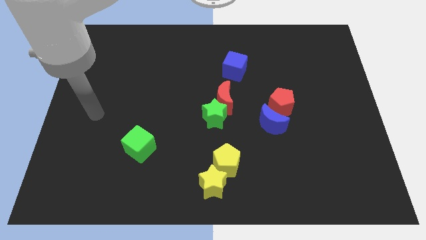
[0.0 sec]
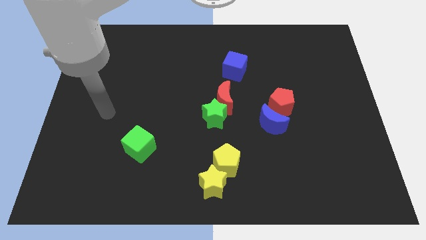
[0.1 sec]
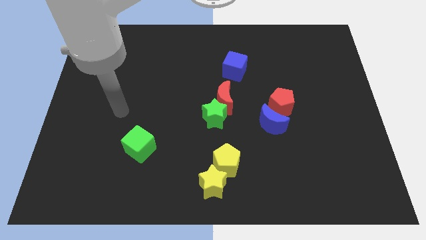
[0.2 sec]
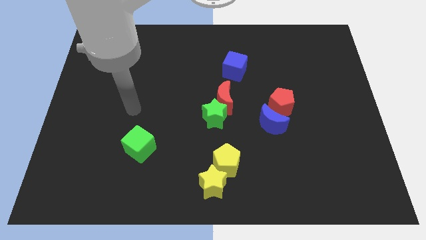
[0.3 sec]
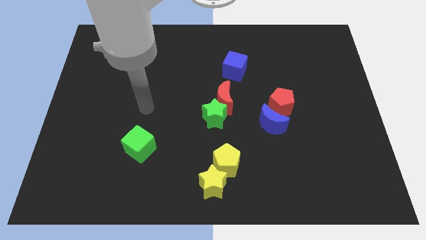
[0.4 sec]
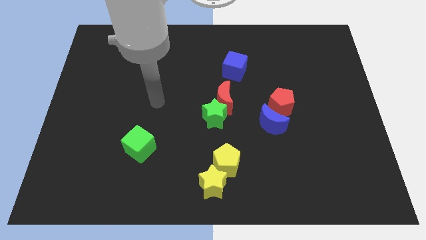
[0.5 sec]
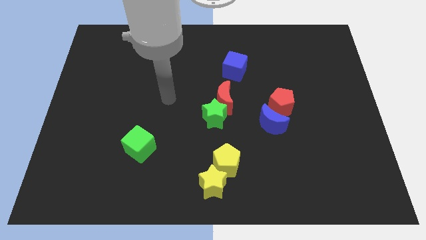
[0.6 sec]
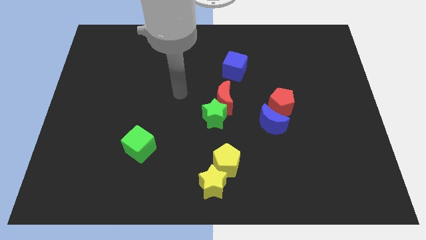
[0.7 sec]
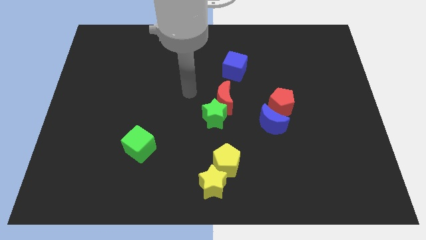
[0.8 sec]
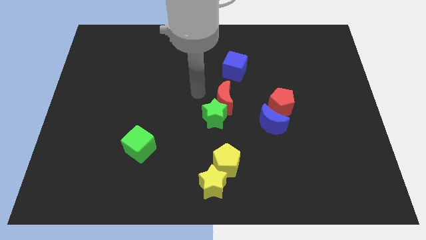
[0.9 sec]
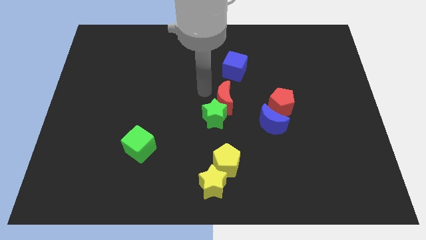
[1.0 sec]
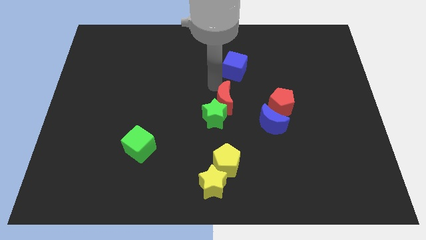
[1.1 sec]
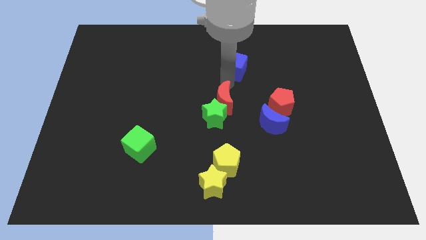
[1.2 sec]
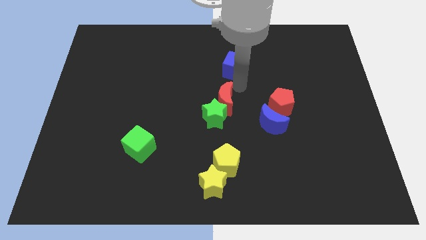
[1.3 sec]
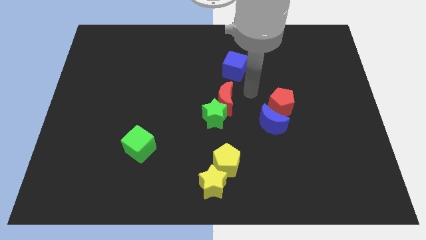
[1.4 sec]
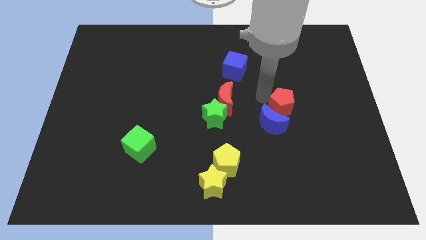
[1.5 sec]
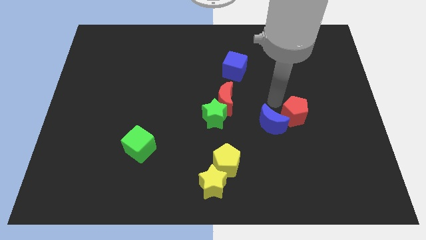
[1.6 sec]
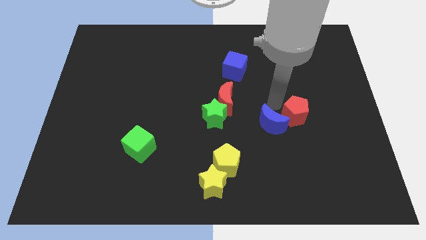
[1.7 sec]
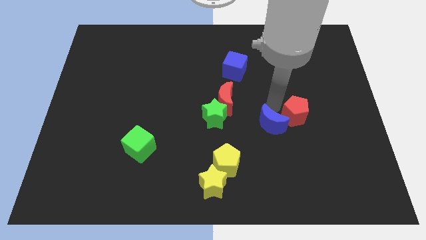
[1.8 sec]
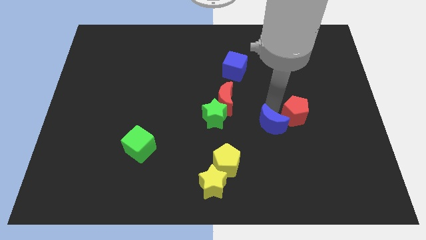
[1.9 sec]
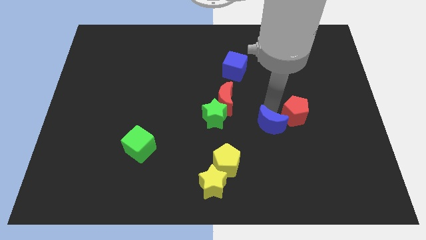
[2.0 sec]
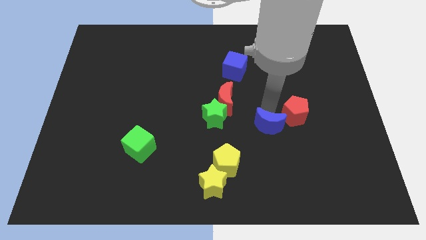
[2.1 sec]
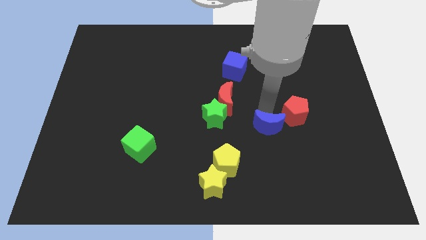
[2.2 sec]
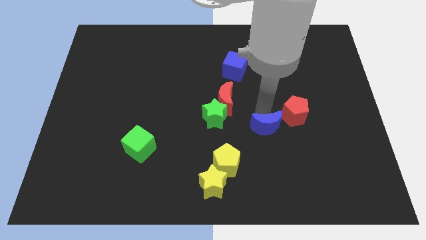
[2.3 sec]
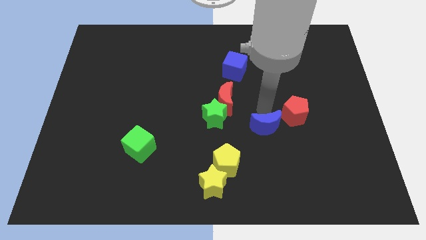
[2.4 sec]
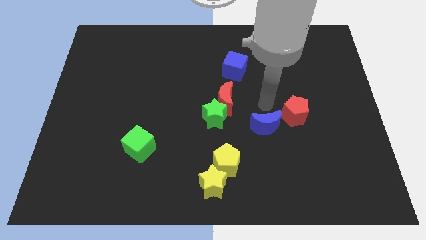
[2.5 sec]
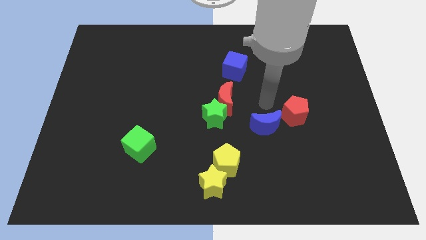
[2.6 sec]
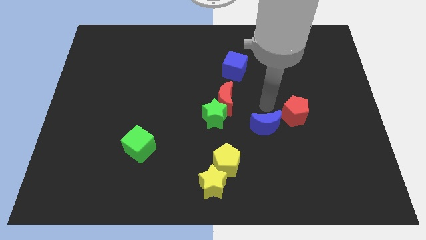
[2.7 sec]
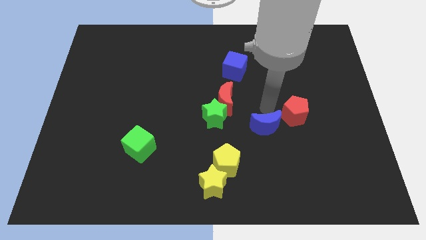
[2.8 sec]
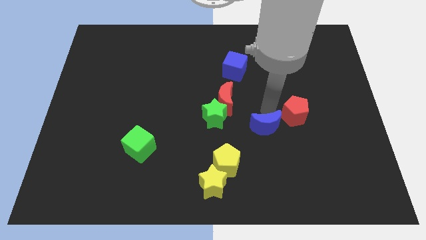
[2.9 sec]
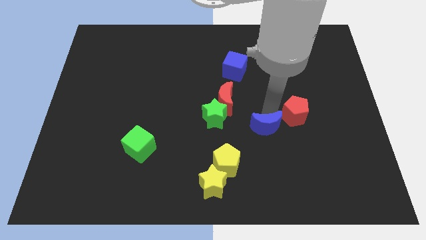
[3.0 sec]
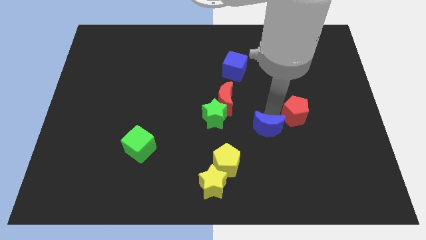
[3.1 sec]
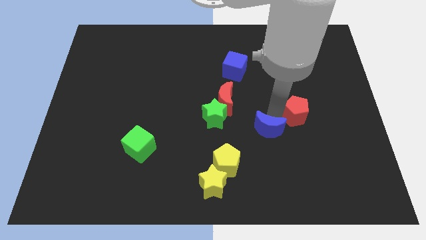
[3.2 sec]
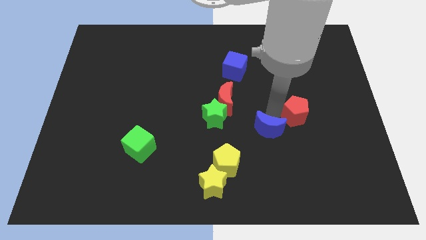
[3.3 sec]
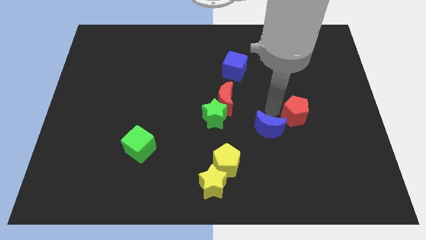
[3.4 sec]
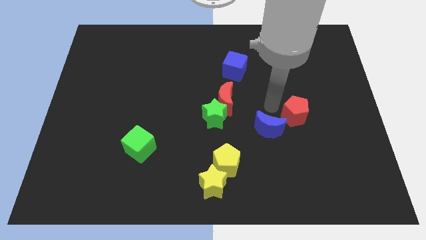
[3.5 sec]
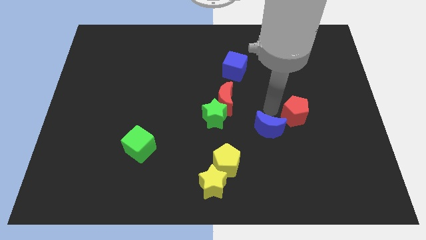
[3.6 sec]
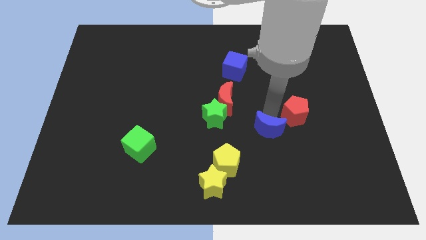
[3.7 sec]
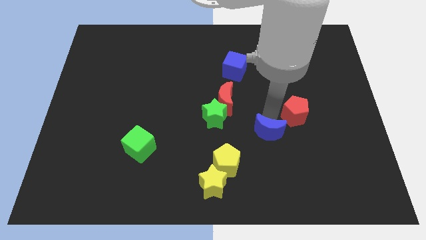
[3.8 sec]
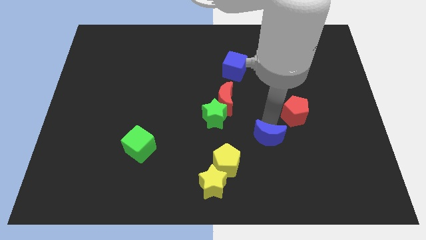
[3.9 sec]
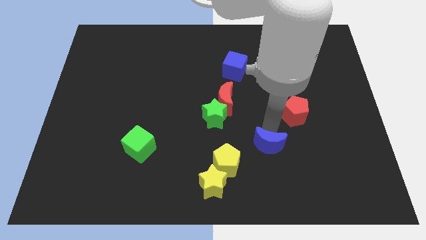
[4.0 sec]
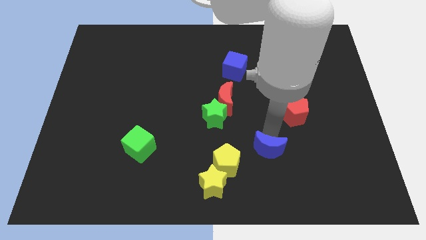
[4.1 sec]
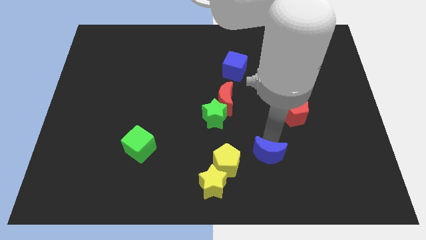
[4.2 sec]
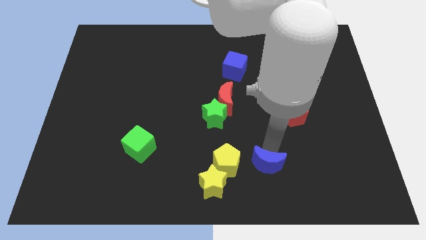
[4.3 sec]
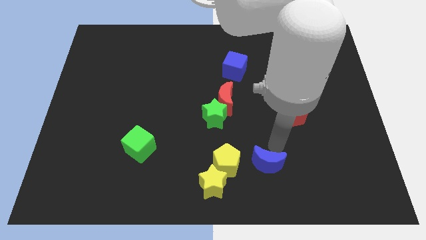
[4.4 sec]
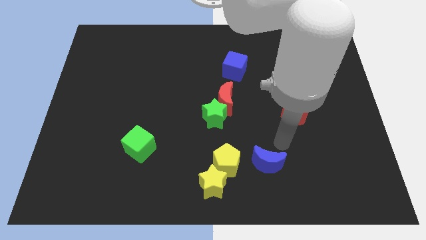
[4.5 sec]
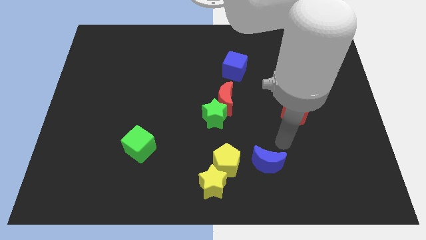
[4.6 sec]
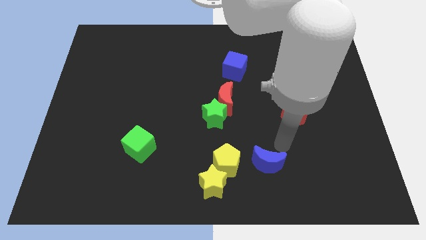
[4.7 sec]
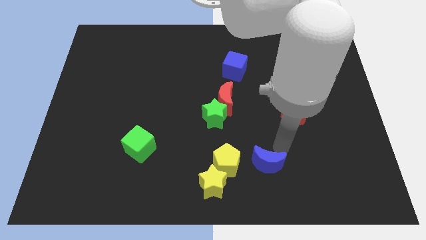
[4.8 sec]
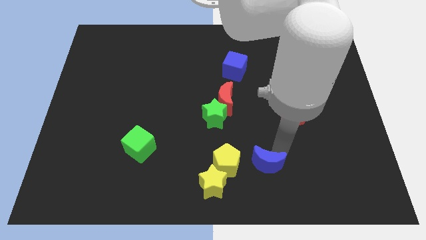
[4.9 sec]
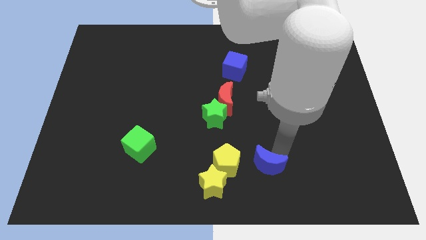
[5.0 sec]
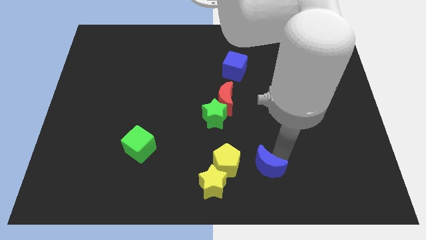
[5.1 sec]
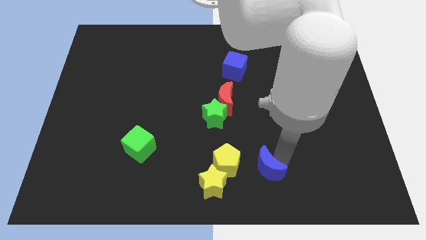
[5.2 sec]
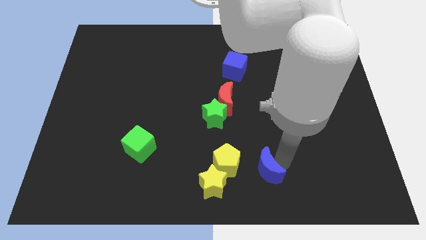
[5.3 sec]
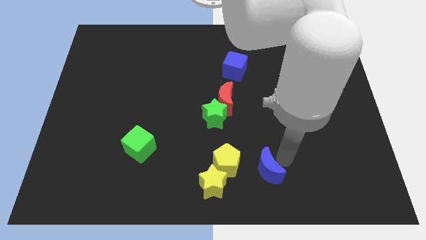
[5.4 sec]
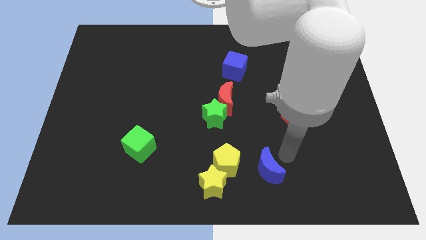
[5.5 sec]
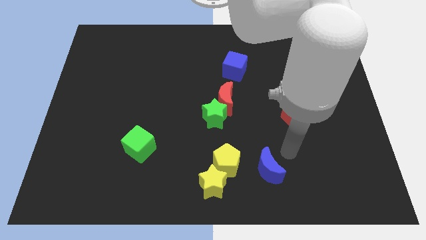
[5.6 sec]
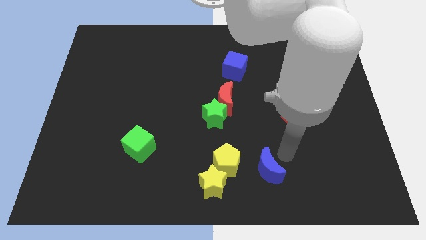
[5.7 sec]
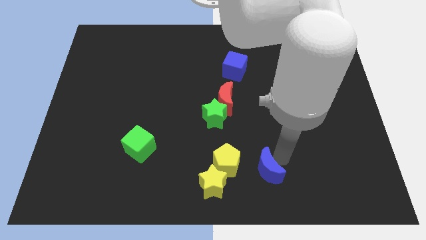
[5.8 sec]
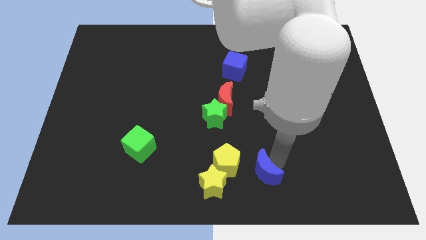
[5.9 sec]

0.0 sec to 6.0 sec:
slide the blue moon to the bottom side
